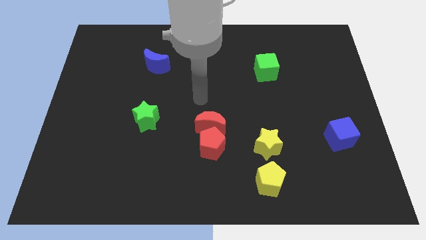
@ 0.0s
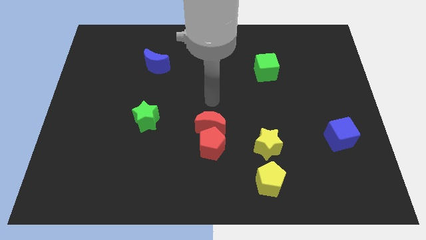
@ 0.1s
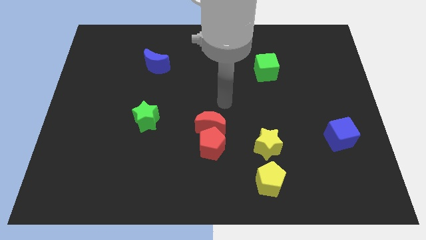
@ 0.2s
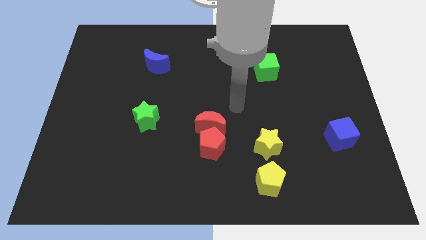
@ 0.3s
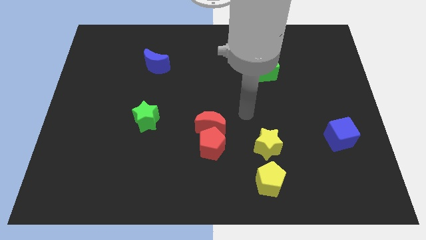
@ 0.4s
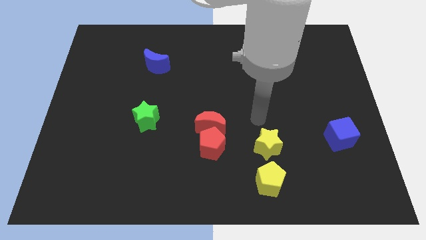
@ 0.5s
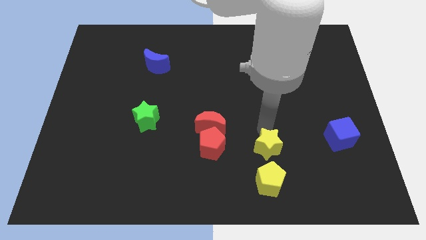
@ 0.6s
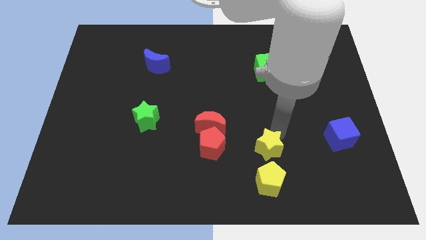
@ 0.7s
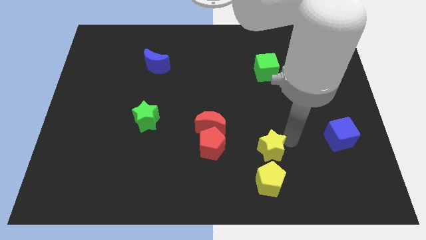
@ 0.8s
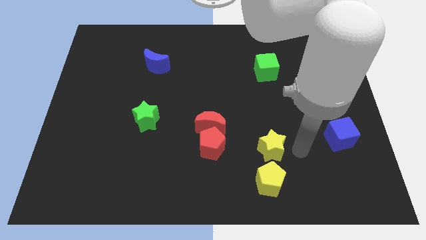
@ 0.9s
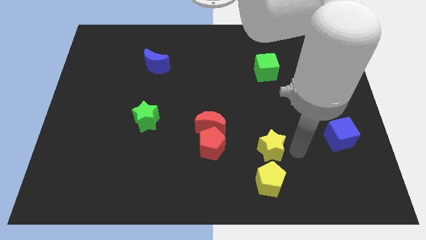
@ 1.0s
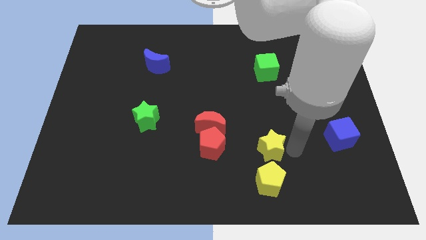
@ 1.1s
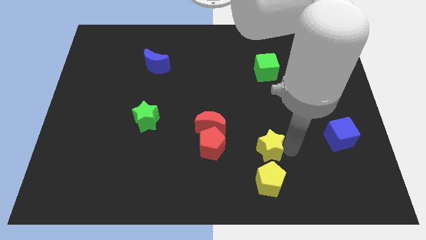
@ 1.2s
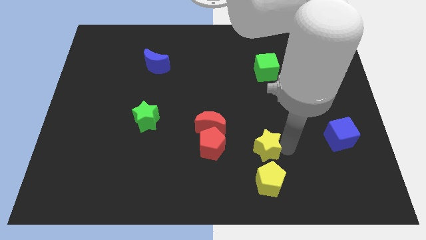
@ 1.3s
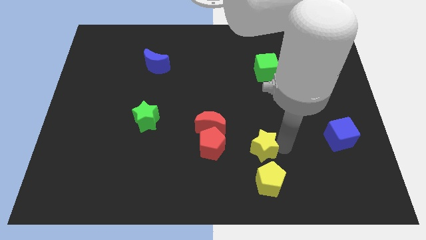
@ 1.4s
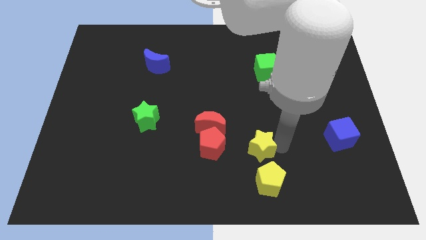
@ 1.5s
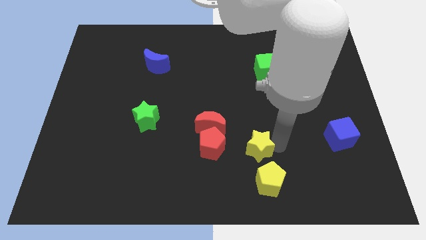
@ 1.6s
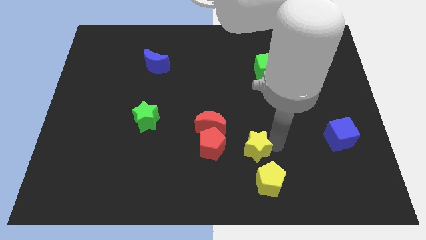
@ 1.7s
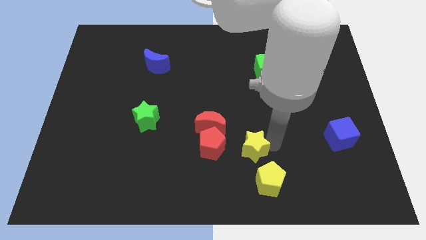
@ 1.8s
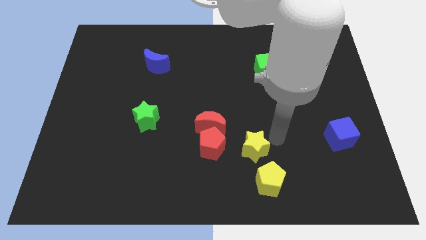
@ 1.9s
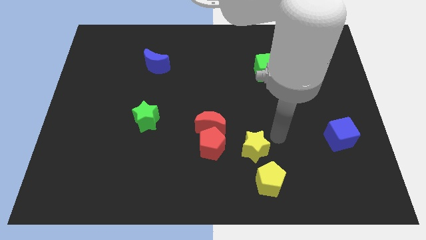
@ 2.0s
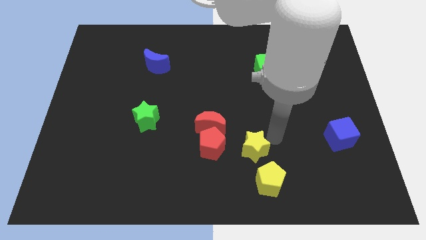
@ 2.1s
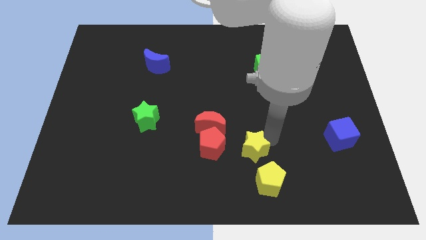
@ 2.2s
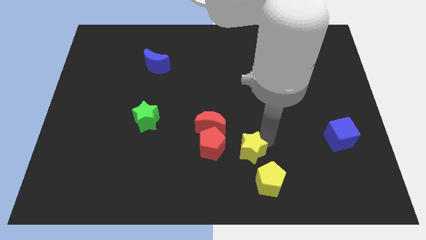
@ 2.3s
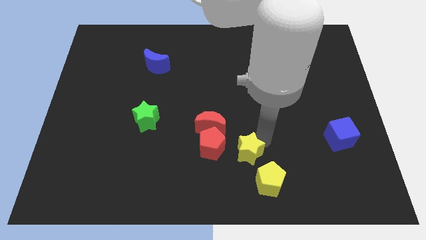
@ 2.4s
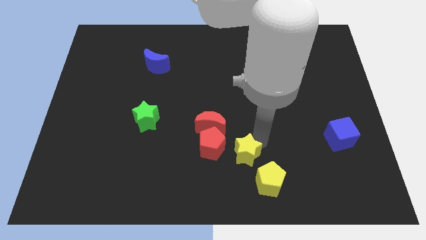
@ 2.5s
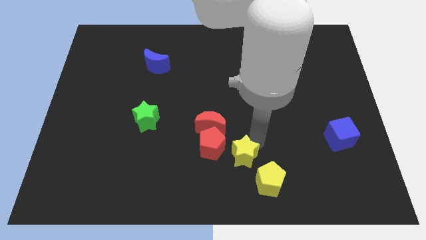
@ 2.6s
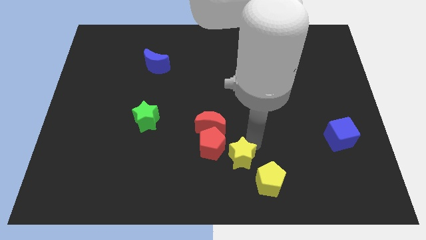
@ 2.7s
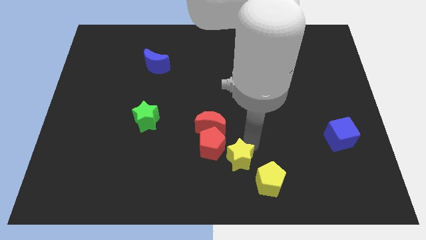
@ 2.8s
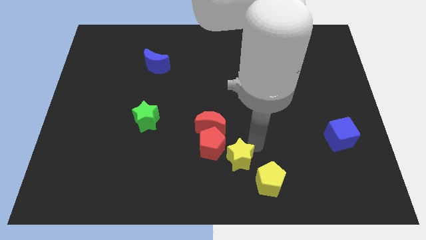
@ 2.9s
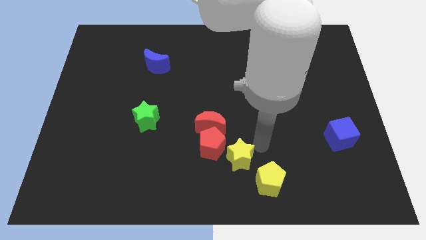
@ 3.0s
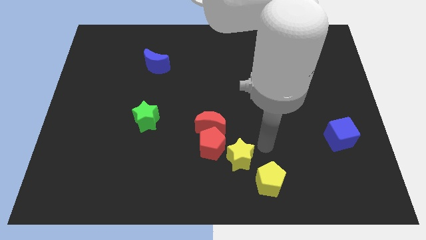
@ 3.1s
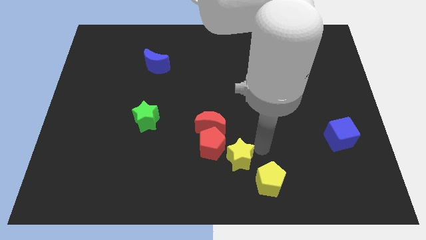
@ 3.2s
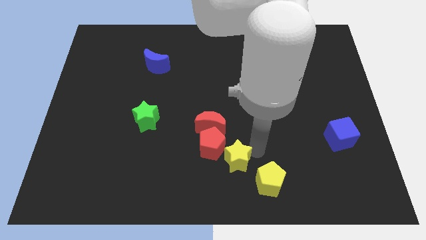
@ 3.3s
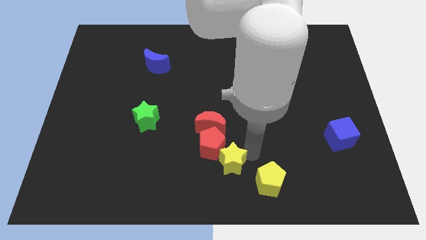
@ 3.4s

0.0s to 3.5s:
slide the yellow star left somewhat

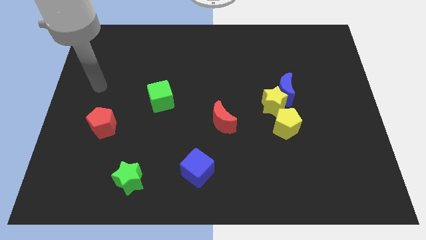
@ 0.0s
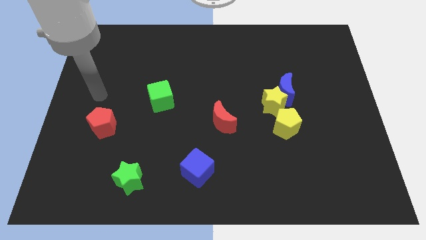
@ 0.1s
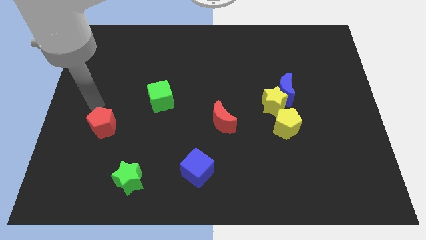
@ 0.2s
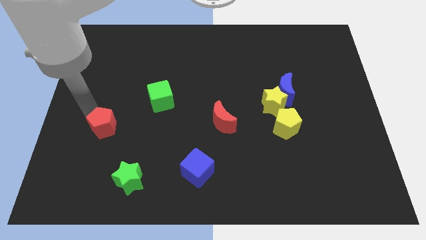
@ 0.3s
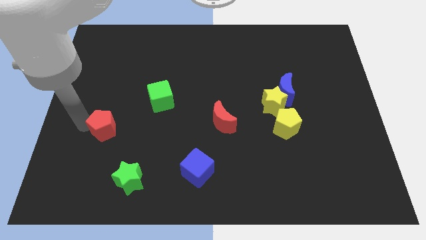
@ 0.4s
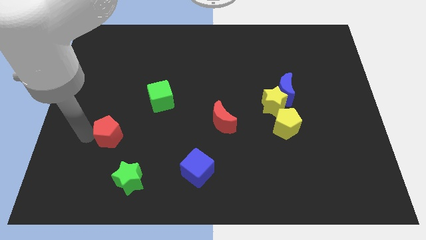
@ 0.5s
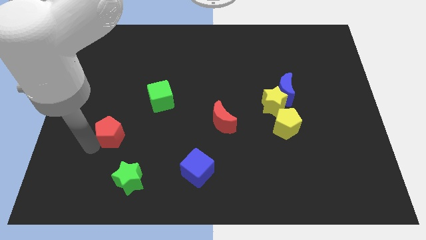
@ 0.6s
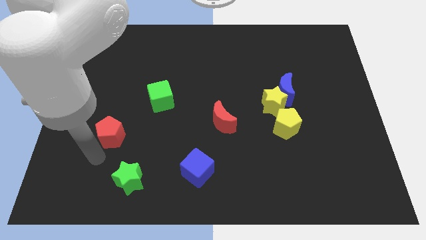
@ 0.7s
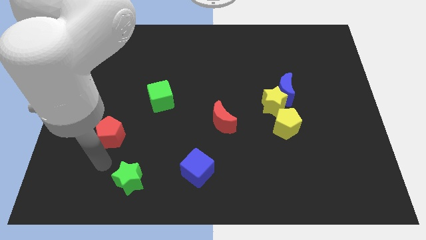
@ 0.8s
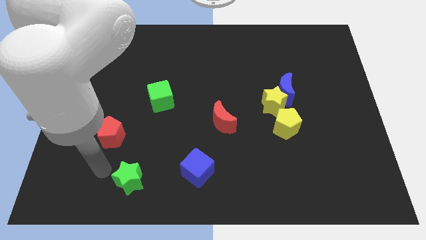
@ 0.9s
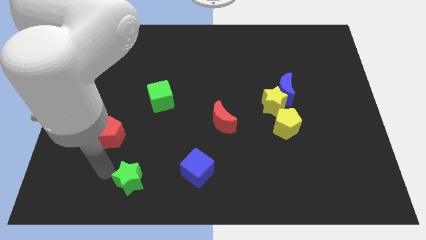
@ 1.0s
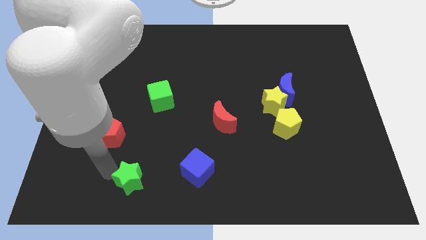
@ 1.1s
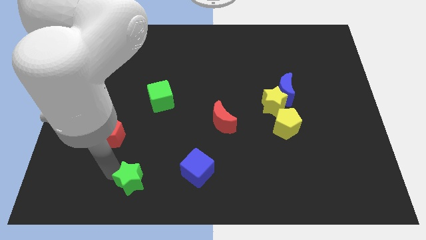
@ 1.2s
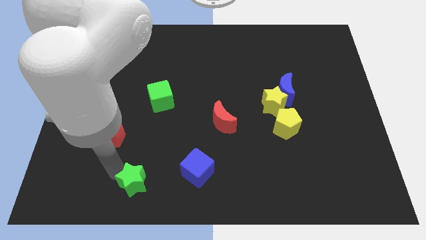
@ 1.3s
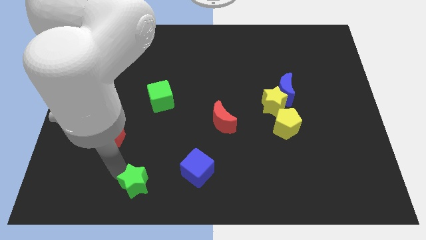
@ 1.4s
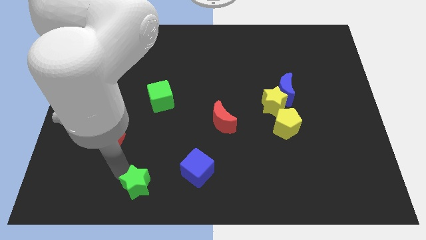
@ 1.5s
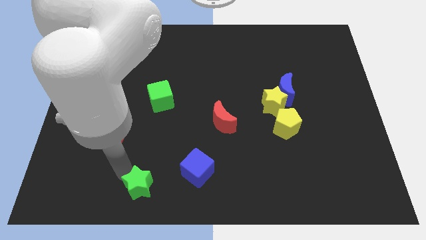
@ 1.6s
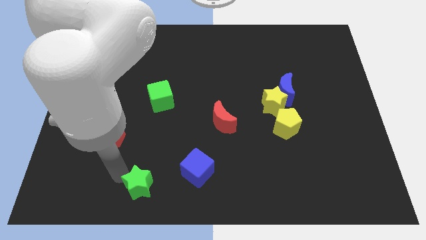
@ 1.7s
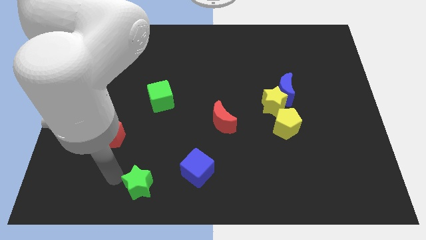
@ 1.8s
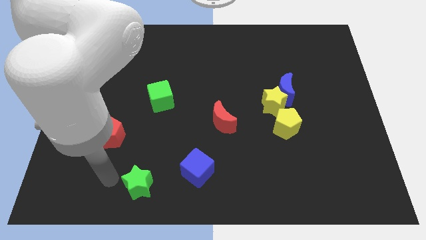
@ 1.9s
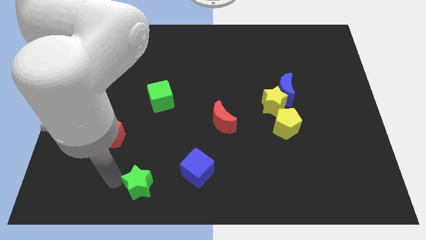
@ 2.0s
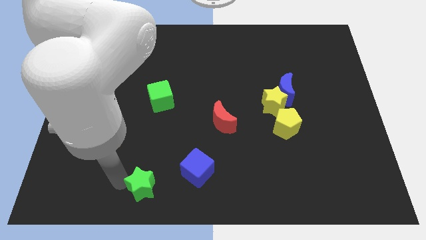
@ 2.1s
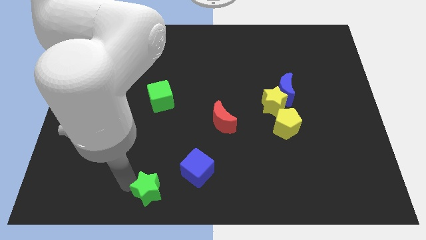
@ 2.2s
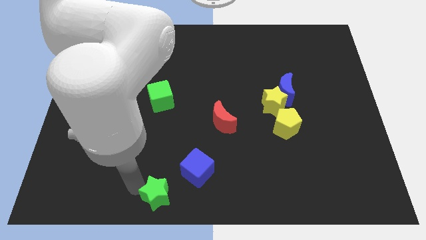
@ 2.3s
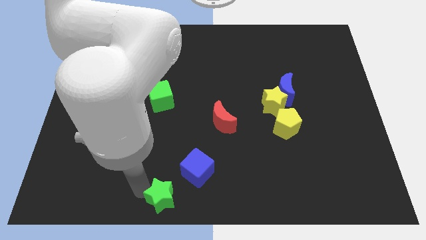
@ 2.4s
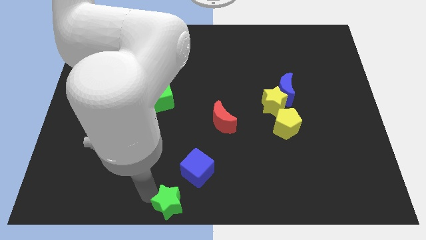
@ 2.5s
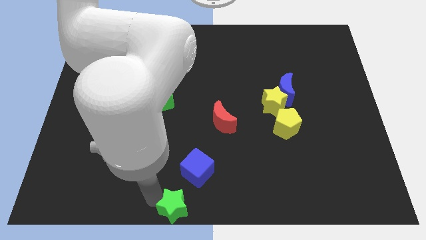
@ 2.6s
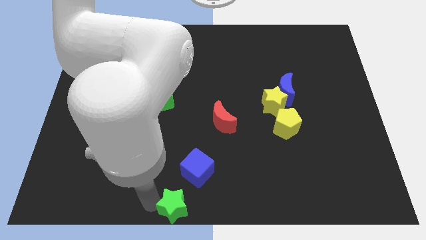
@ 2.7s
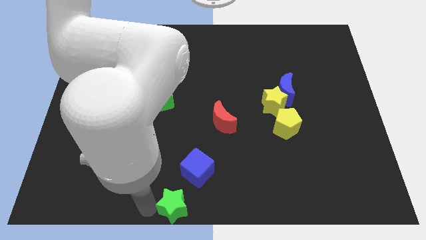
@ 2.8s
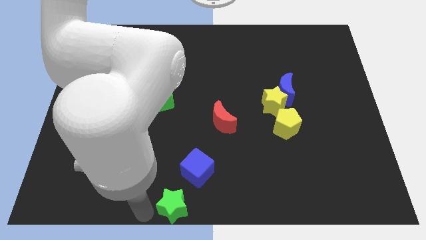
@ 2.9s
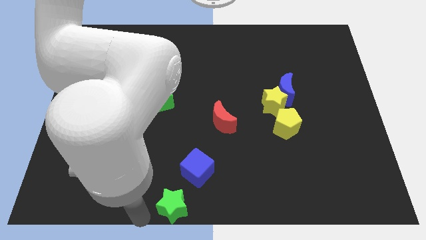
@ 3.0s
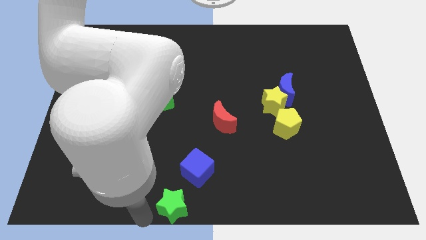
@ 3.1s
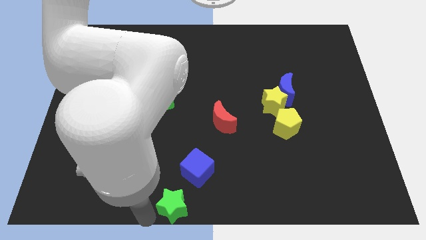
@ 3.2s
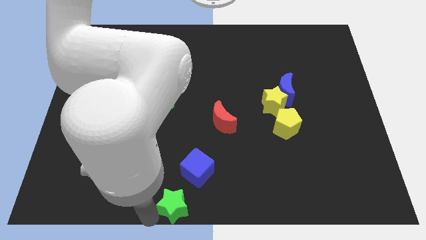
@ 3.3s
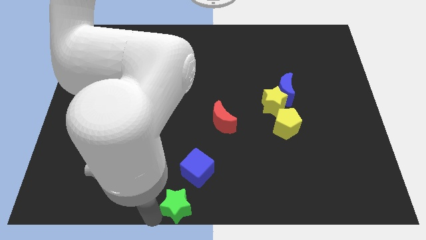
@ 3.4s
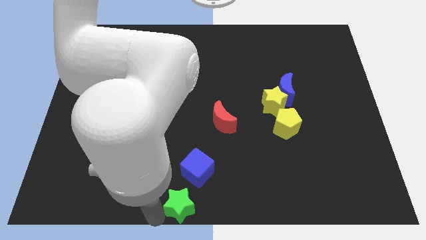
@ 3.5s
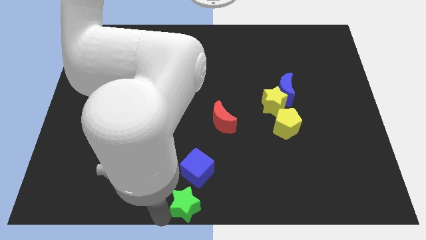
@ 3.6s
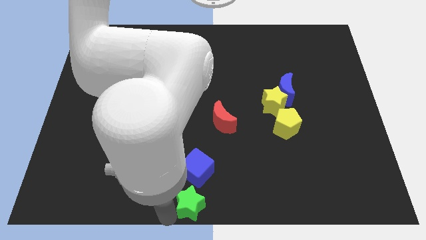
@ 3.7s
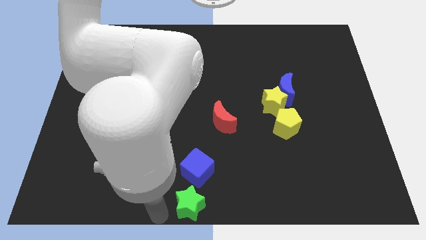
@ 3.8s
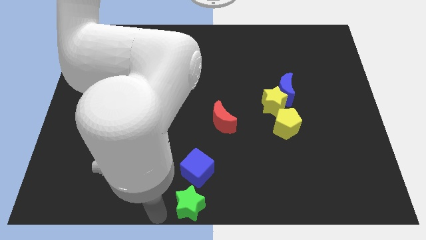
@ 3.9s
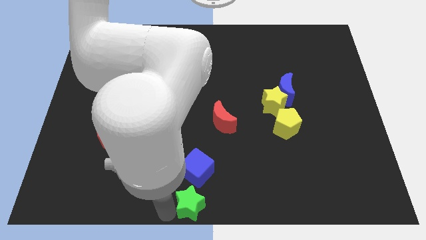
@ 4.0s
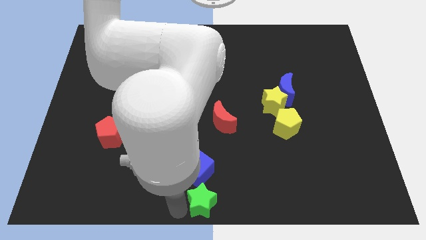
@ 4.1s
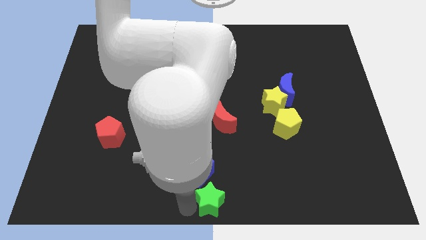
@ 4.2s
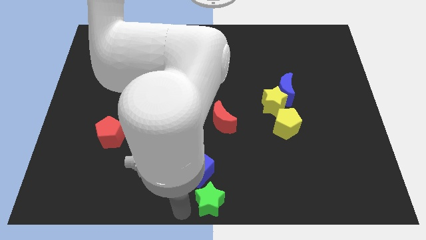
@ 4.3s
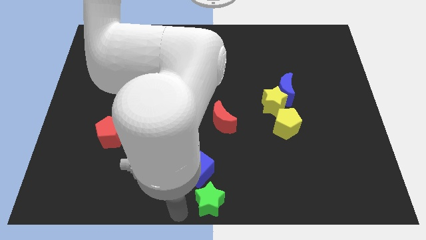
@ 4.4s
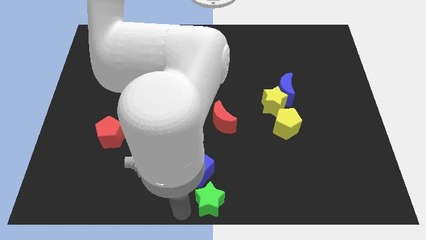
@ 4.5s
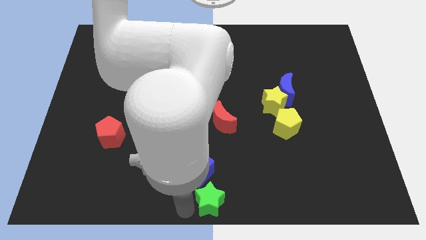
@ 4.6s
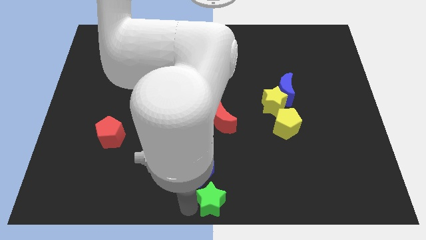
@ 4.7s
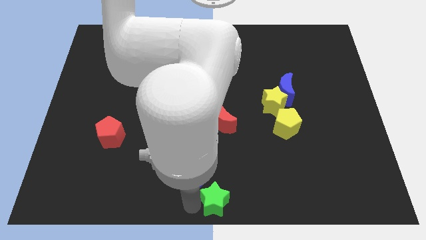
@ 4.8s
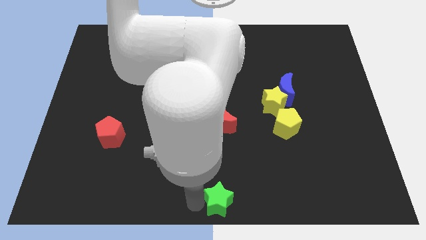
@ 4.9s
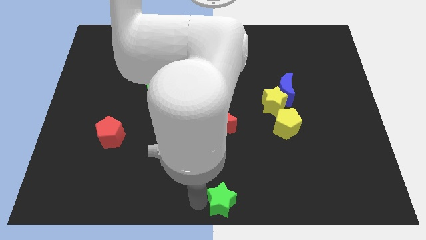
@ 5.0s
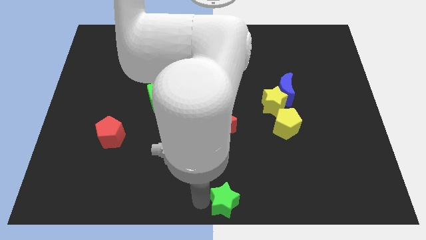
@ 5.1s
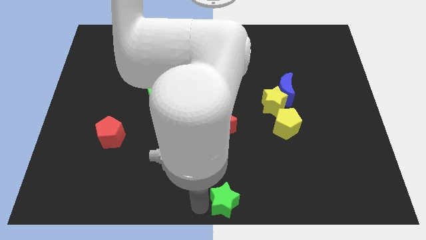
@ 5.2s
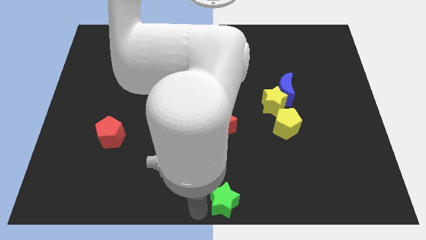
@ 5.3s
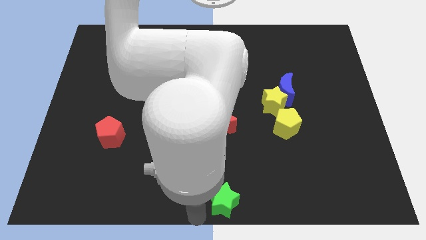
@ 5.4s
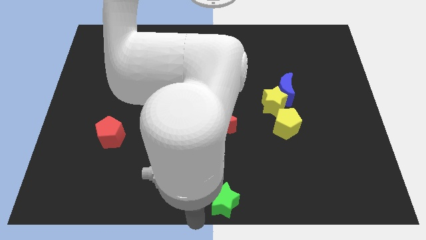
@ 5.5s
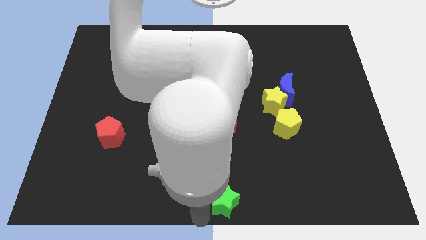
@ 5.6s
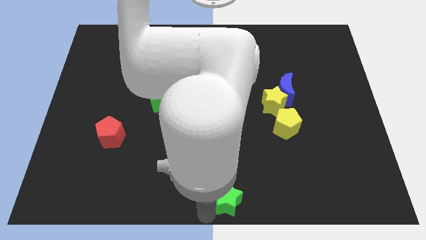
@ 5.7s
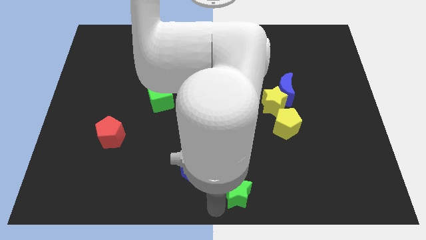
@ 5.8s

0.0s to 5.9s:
slide the green star right
